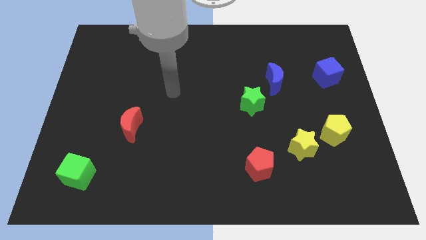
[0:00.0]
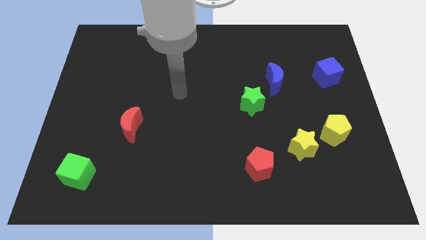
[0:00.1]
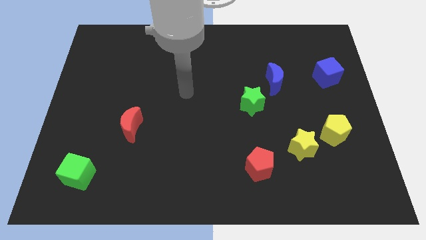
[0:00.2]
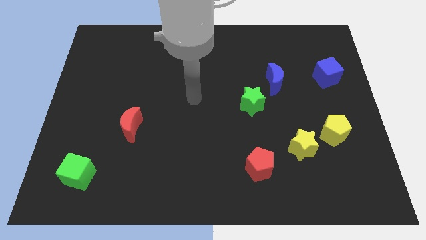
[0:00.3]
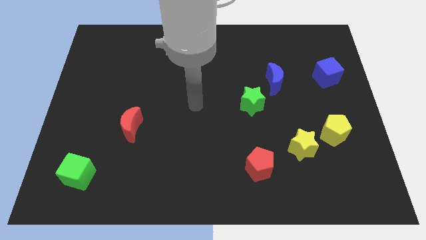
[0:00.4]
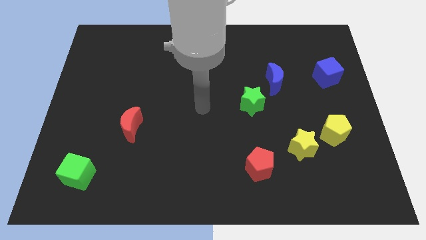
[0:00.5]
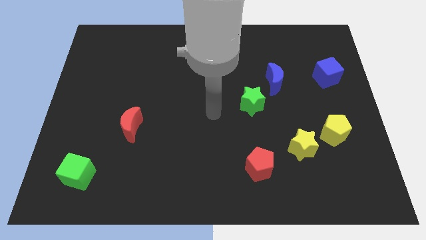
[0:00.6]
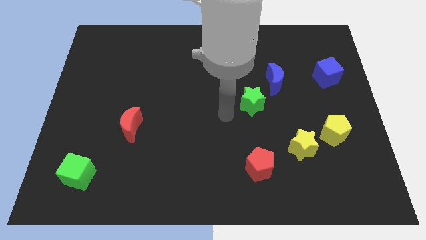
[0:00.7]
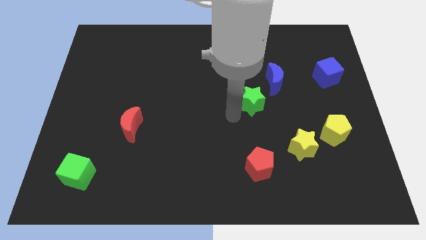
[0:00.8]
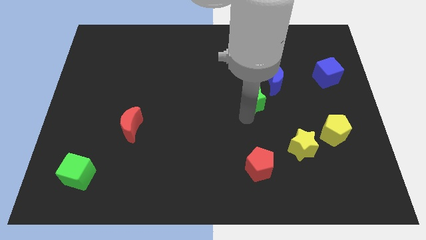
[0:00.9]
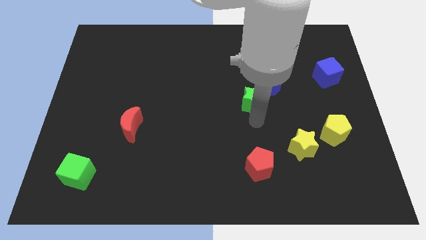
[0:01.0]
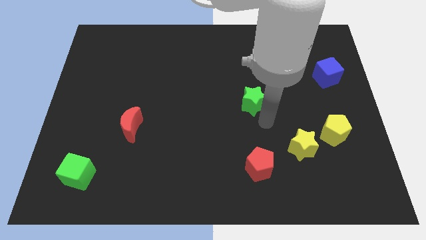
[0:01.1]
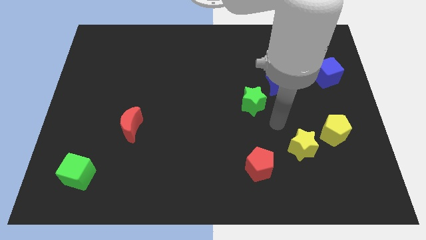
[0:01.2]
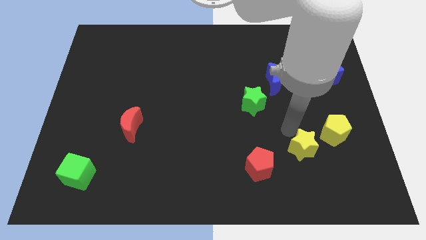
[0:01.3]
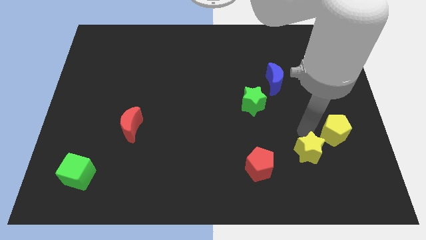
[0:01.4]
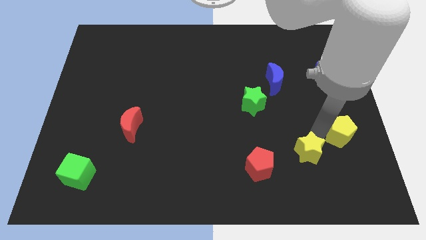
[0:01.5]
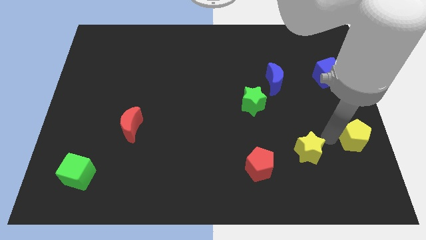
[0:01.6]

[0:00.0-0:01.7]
separate the yellow star from the yellow pentagon

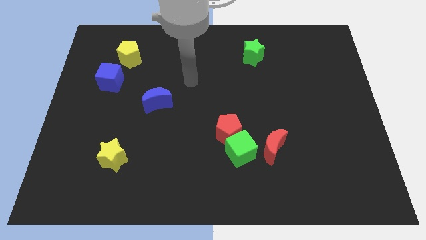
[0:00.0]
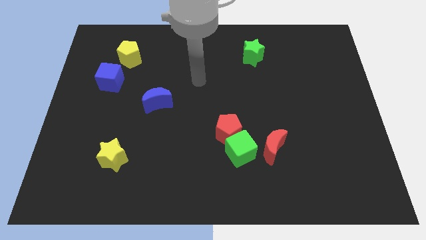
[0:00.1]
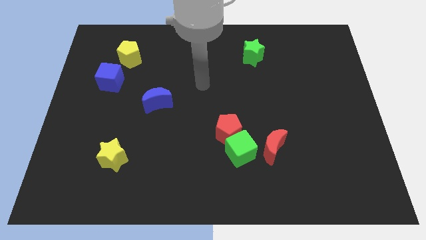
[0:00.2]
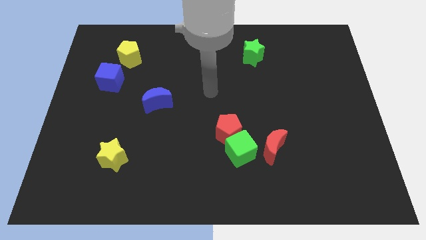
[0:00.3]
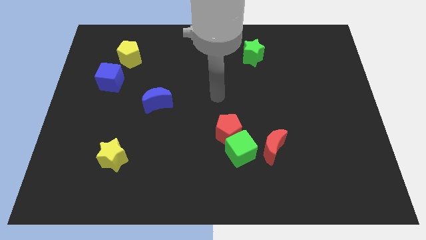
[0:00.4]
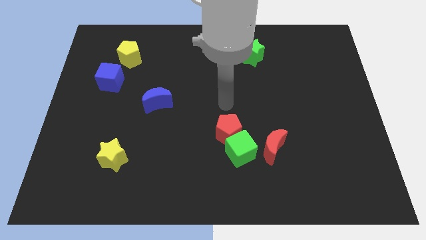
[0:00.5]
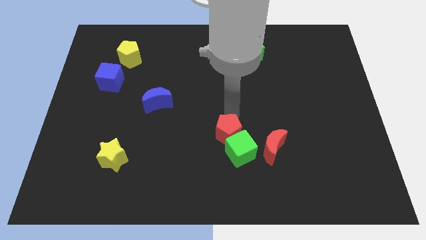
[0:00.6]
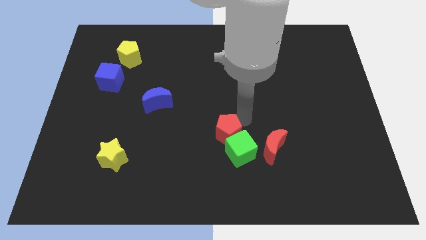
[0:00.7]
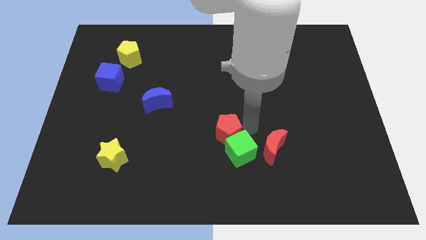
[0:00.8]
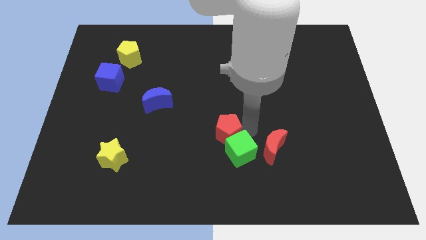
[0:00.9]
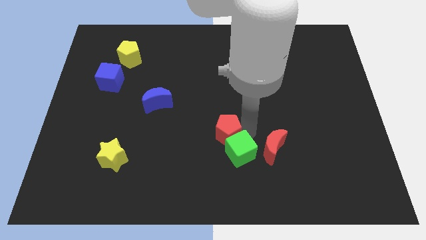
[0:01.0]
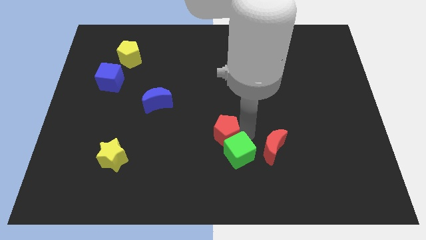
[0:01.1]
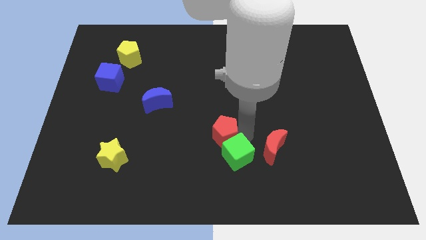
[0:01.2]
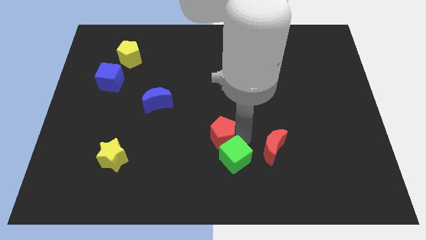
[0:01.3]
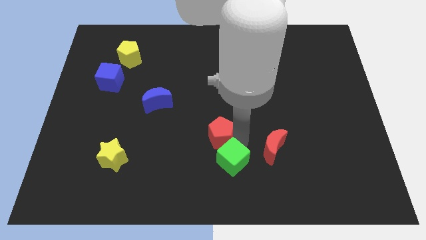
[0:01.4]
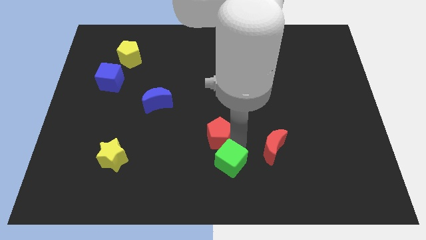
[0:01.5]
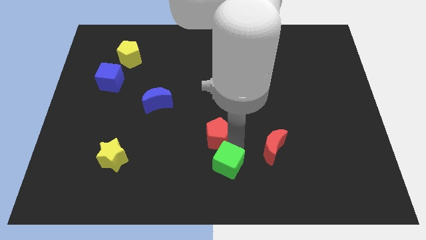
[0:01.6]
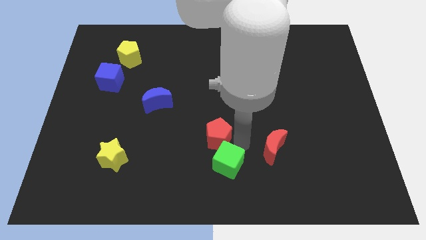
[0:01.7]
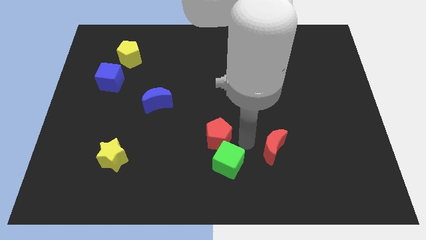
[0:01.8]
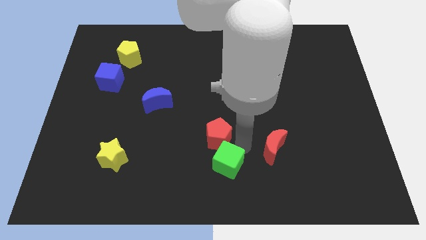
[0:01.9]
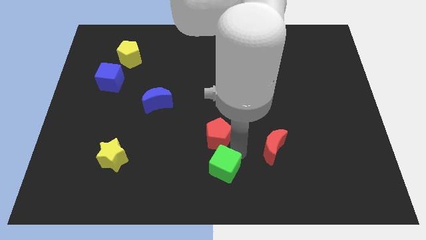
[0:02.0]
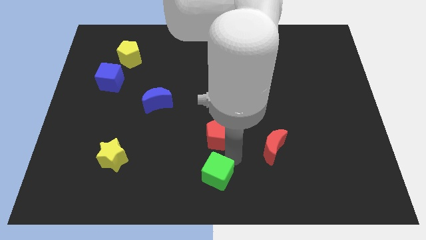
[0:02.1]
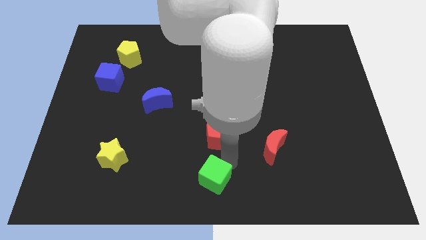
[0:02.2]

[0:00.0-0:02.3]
move the green cube away from the red pentagon and red moon

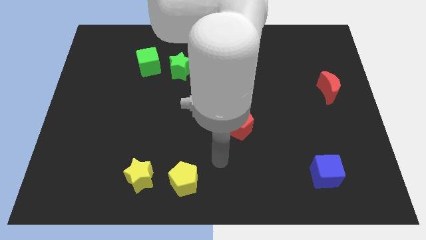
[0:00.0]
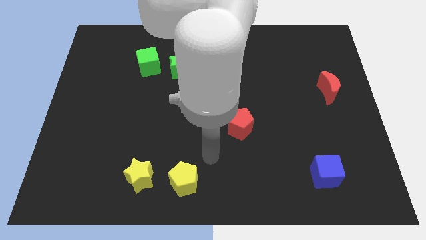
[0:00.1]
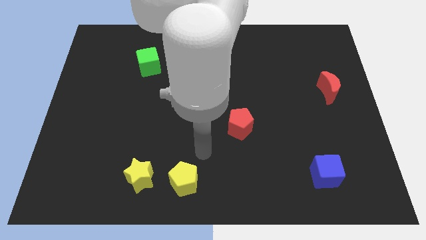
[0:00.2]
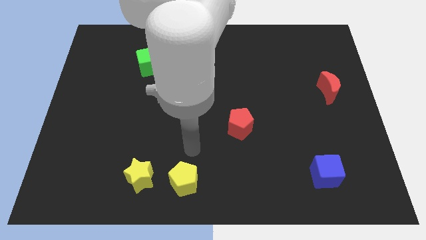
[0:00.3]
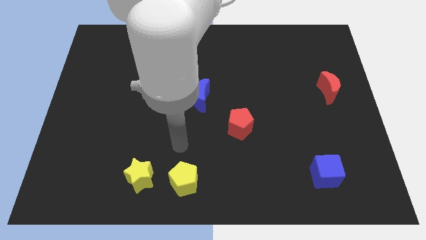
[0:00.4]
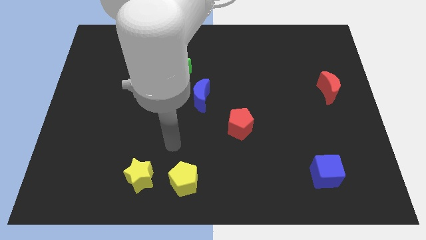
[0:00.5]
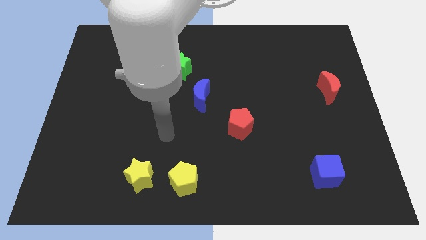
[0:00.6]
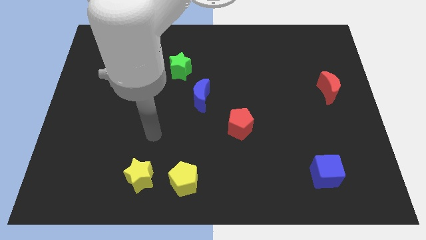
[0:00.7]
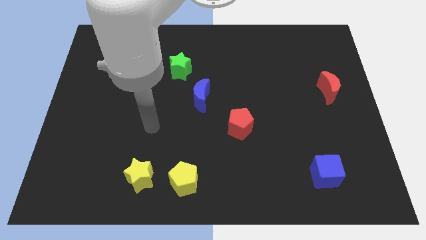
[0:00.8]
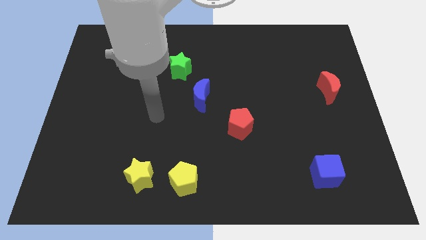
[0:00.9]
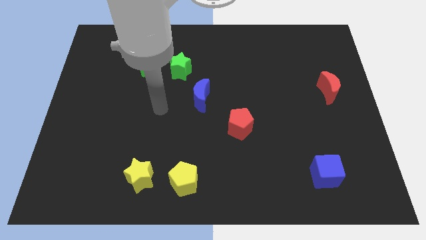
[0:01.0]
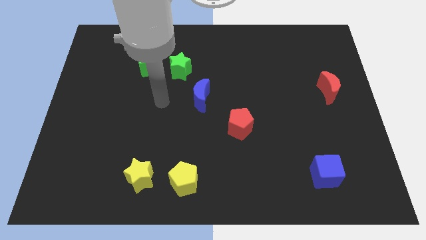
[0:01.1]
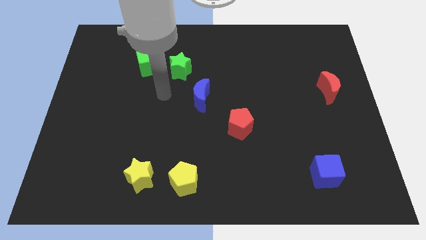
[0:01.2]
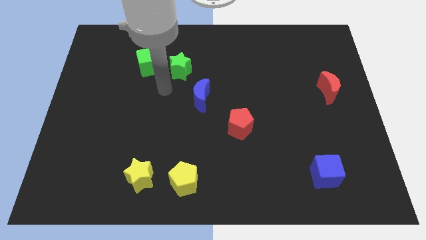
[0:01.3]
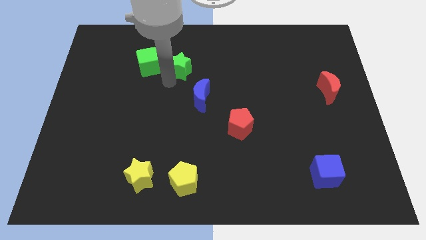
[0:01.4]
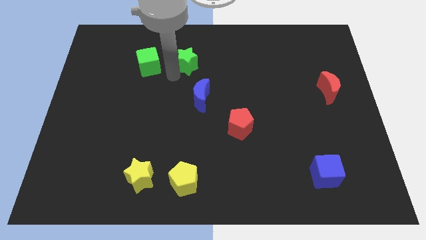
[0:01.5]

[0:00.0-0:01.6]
pull the green cube apart from the green star

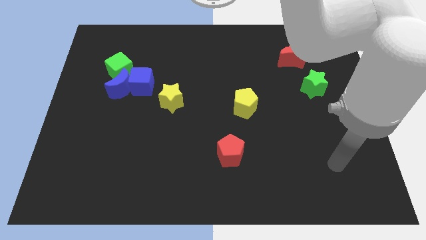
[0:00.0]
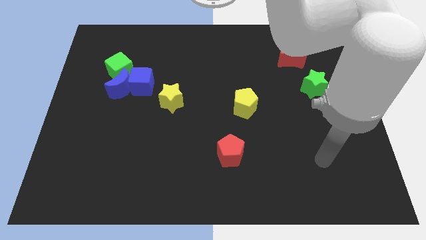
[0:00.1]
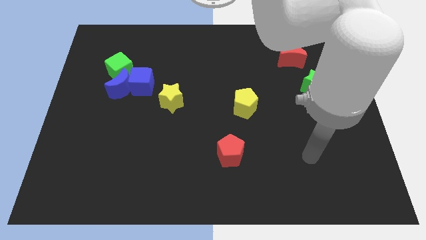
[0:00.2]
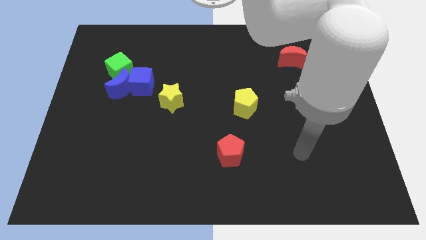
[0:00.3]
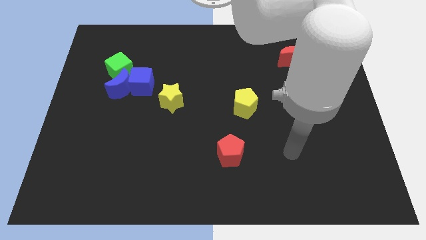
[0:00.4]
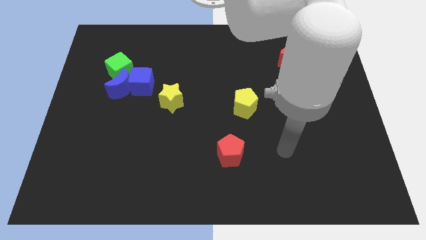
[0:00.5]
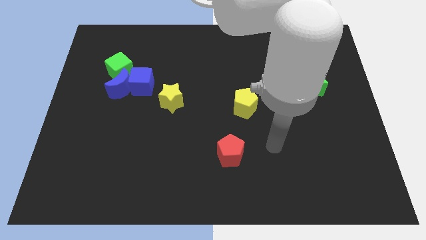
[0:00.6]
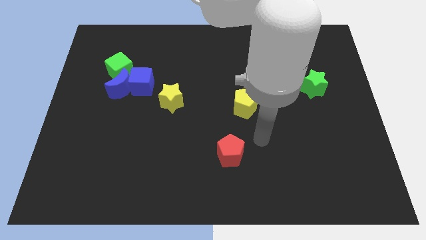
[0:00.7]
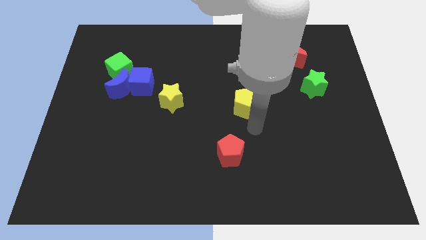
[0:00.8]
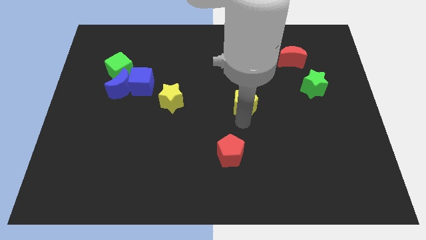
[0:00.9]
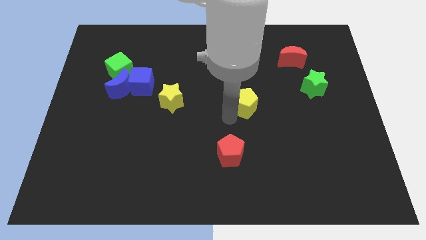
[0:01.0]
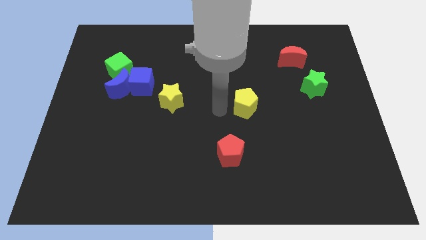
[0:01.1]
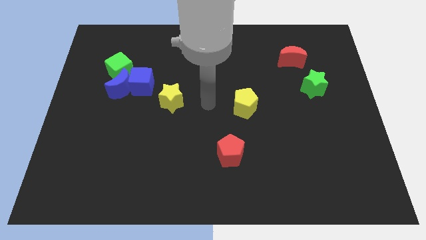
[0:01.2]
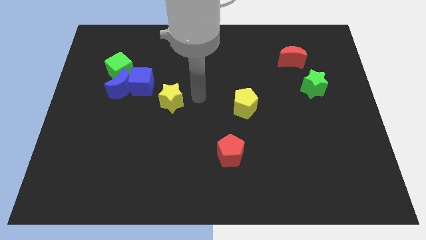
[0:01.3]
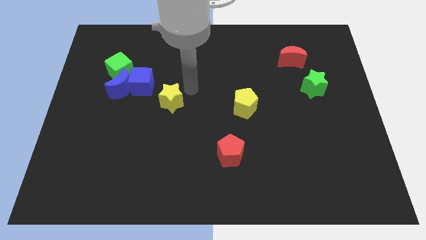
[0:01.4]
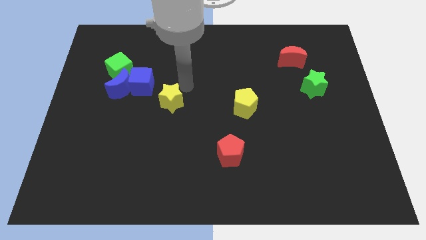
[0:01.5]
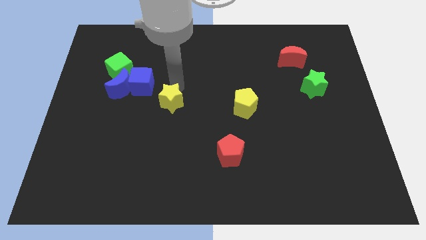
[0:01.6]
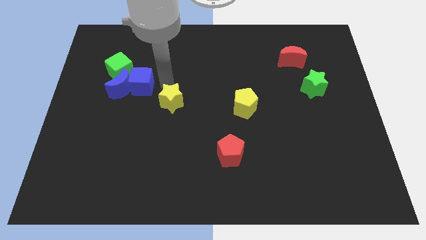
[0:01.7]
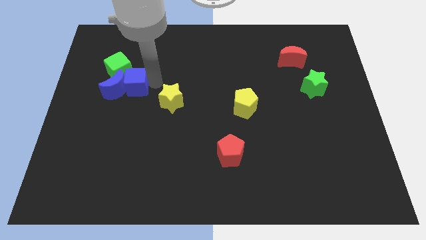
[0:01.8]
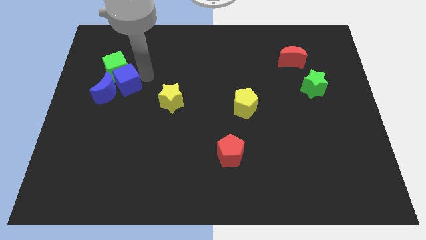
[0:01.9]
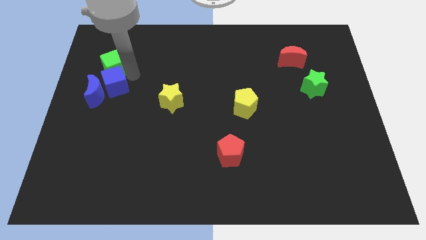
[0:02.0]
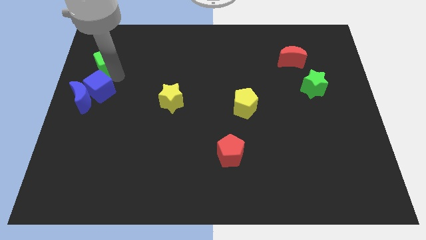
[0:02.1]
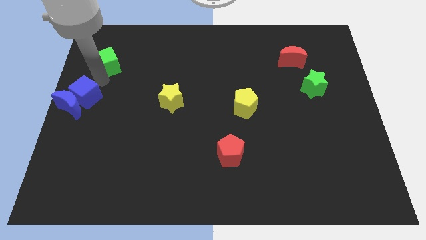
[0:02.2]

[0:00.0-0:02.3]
separate the blue moon from the blue cube and green cube

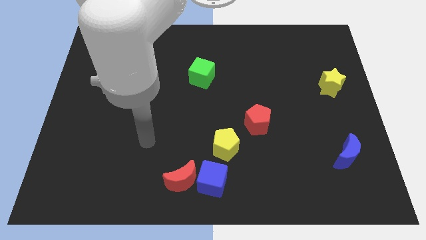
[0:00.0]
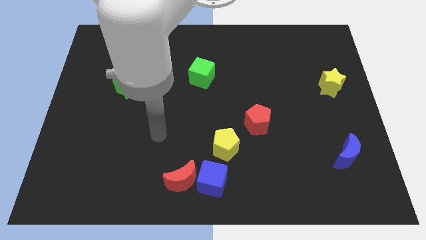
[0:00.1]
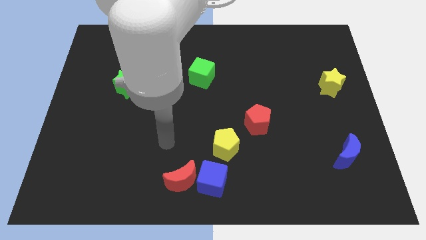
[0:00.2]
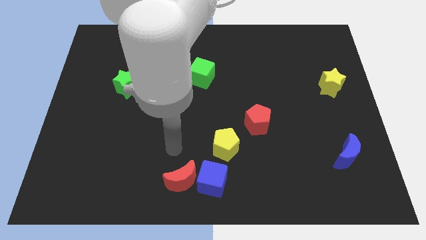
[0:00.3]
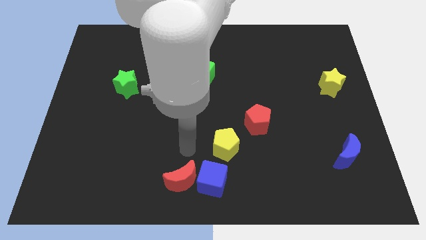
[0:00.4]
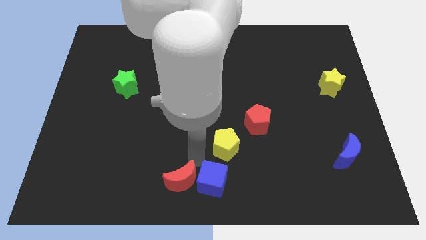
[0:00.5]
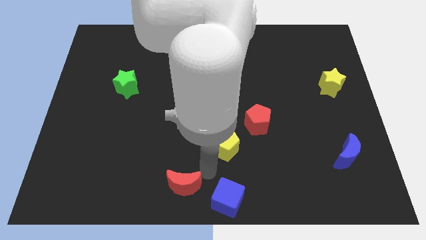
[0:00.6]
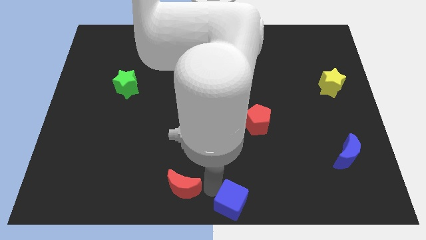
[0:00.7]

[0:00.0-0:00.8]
pull the red moon apart from the blue cube

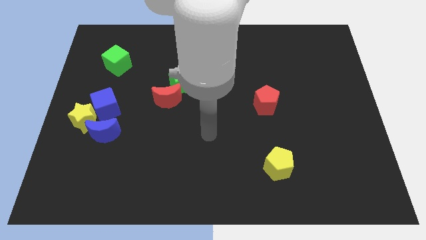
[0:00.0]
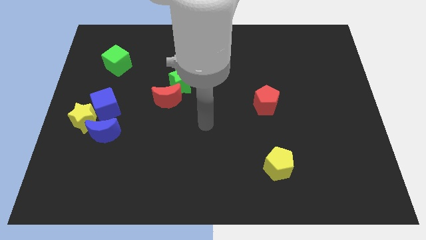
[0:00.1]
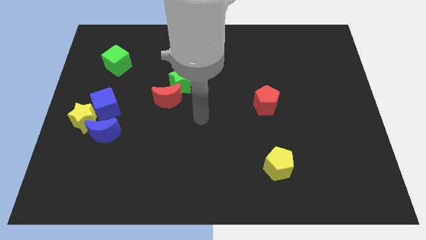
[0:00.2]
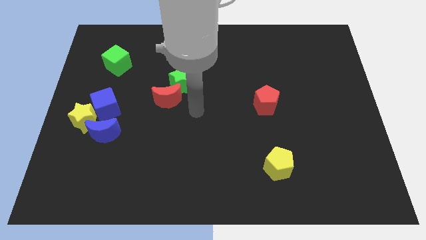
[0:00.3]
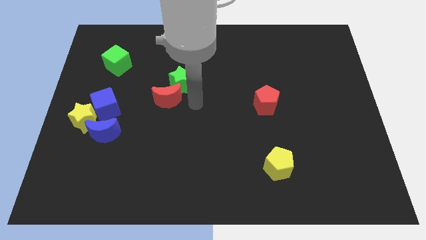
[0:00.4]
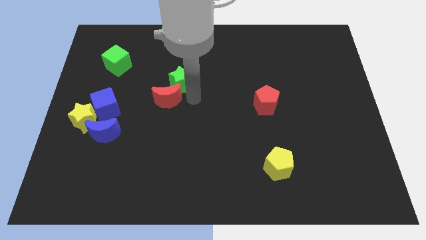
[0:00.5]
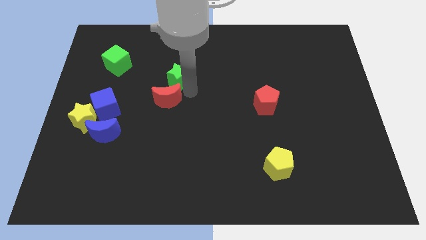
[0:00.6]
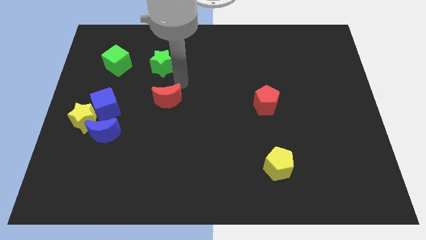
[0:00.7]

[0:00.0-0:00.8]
pull the red moon apart from the green star
